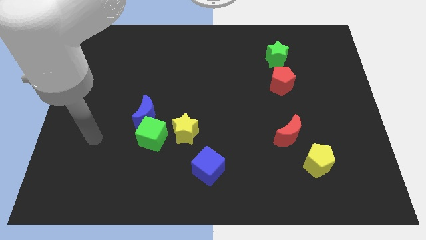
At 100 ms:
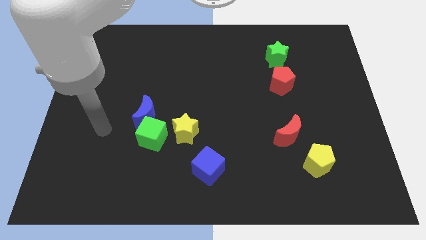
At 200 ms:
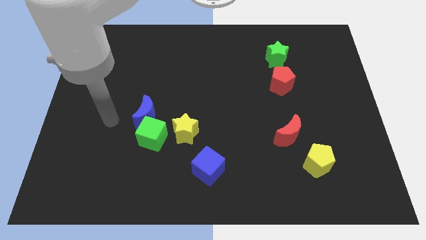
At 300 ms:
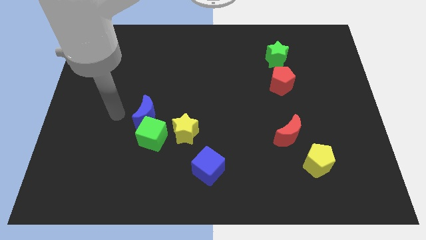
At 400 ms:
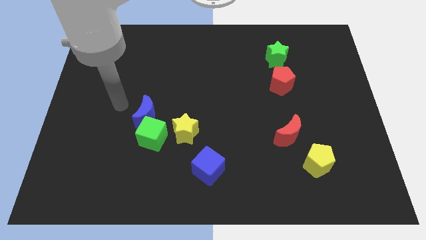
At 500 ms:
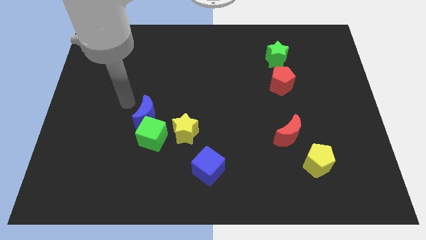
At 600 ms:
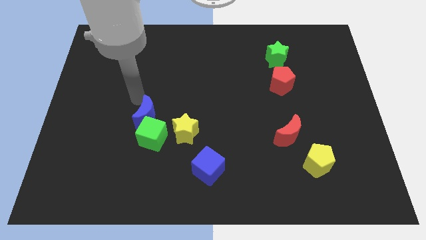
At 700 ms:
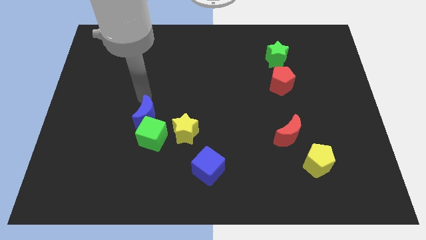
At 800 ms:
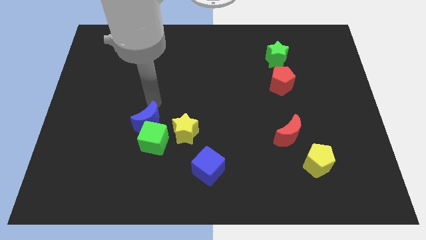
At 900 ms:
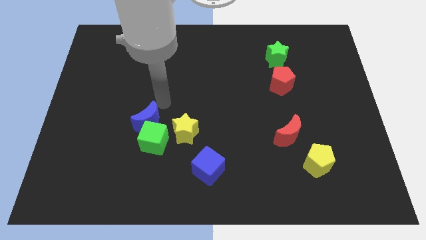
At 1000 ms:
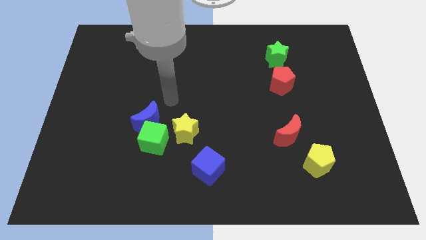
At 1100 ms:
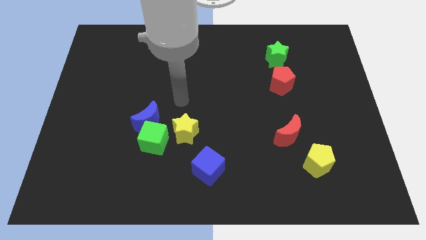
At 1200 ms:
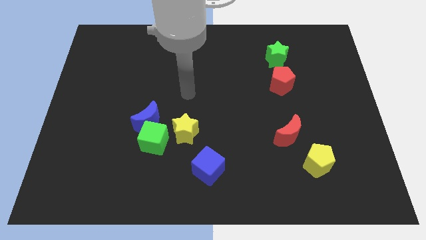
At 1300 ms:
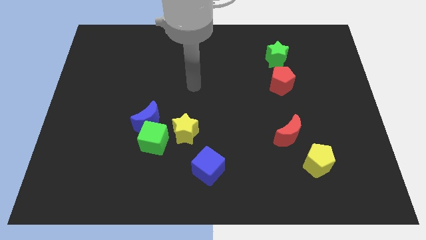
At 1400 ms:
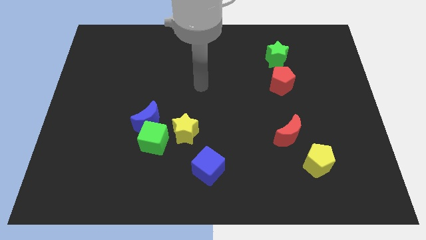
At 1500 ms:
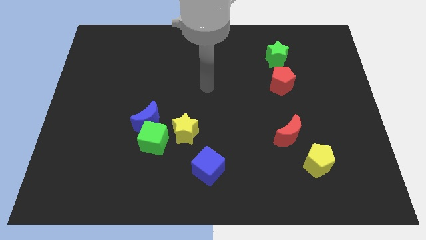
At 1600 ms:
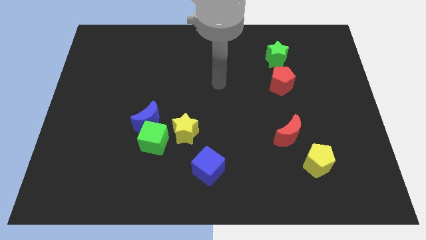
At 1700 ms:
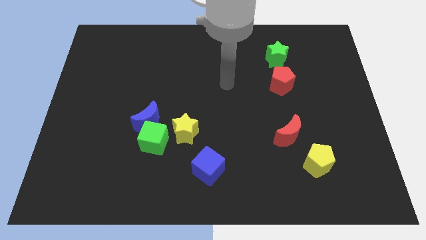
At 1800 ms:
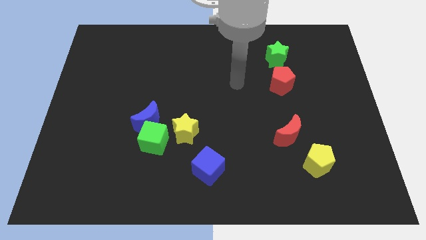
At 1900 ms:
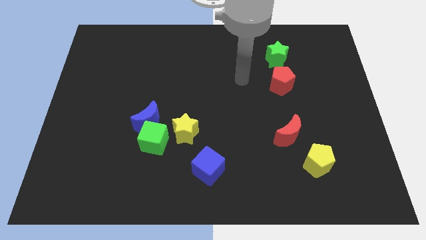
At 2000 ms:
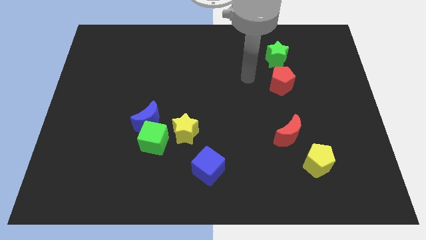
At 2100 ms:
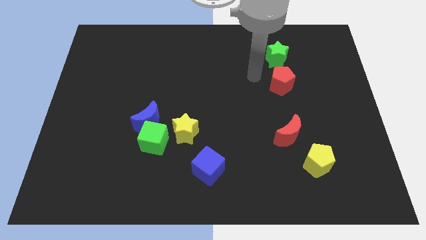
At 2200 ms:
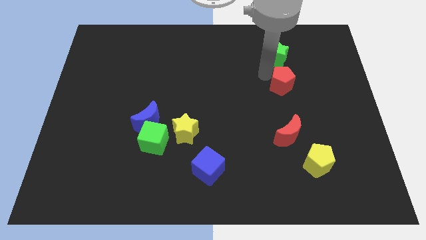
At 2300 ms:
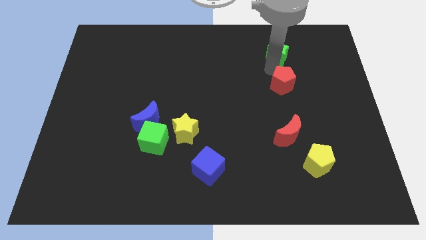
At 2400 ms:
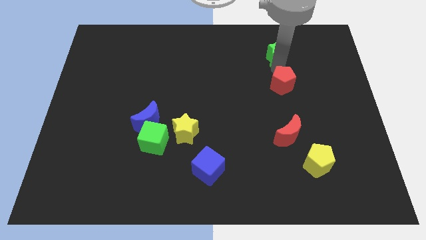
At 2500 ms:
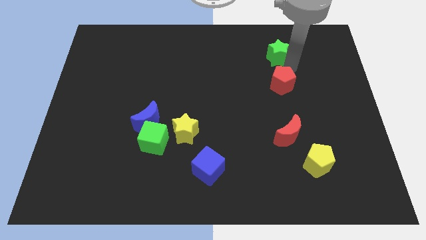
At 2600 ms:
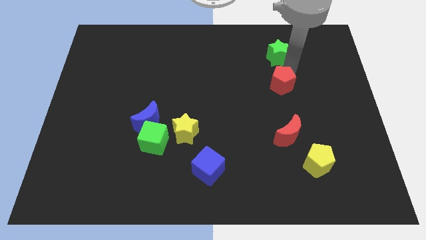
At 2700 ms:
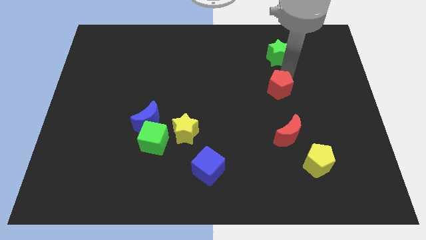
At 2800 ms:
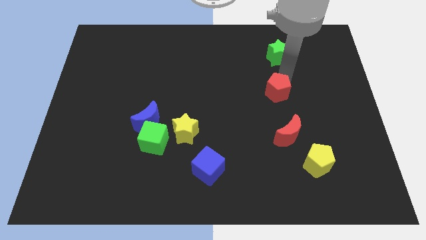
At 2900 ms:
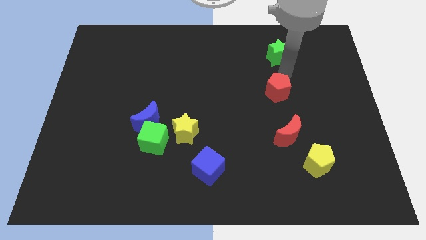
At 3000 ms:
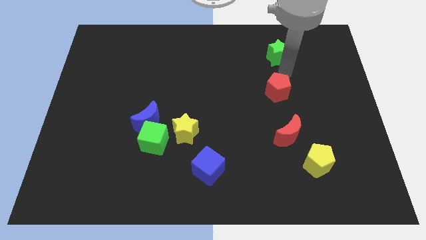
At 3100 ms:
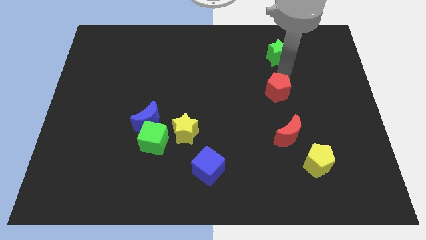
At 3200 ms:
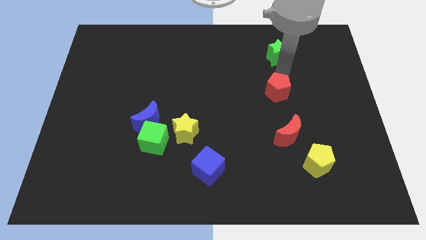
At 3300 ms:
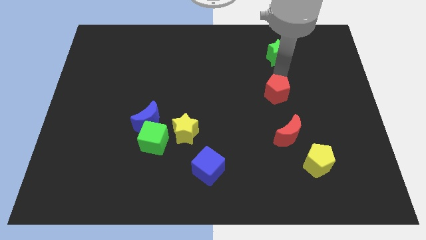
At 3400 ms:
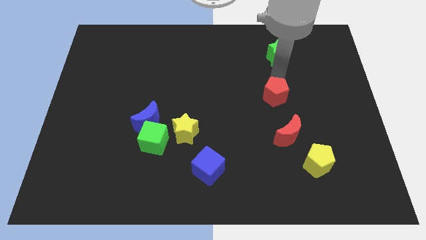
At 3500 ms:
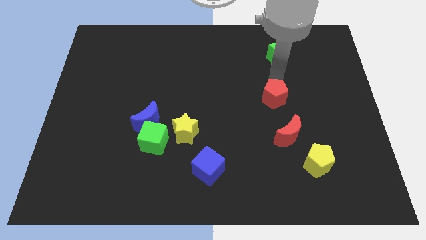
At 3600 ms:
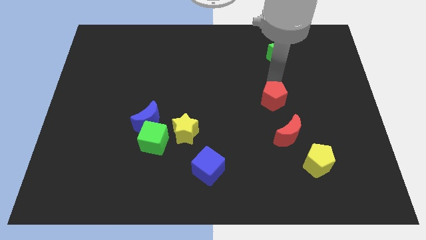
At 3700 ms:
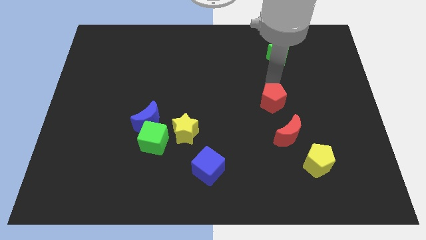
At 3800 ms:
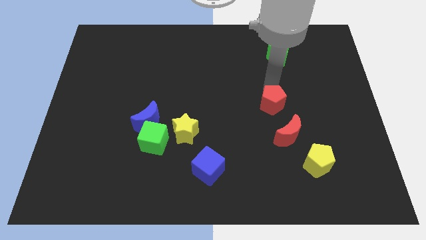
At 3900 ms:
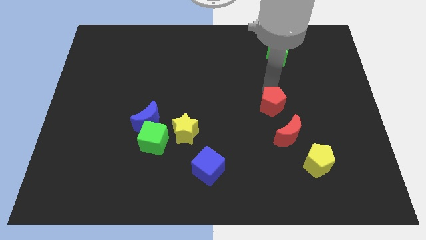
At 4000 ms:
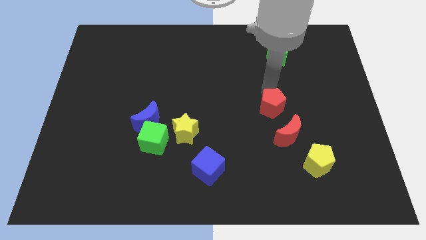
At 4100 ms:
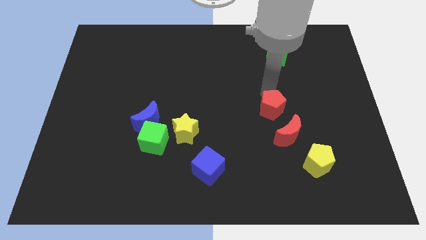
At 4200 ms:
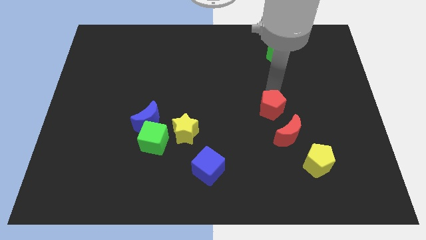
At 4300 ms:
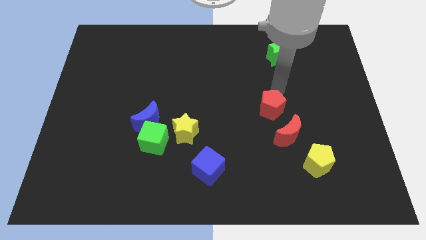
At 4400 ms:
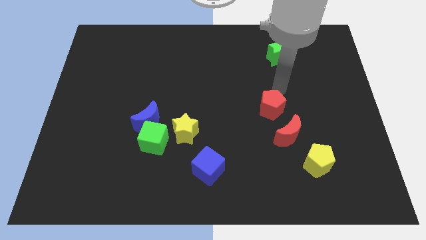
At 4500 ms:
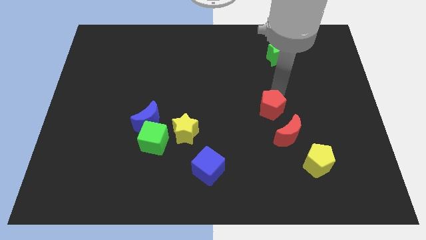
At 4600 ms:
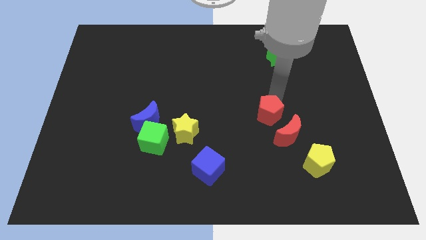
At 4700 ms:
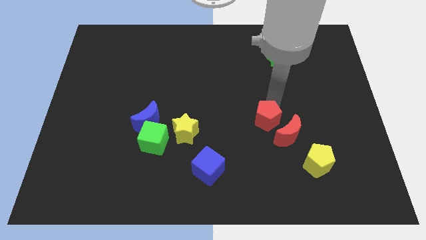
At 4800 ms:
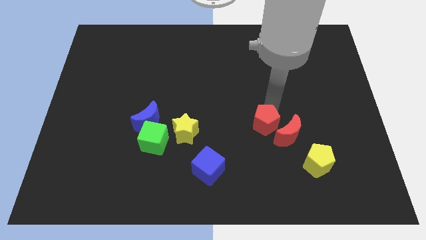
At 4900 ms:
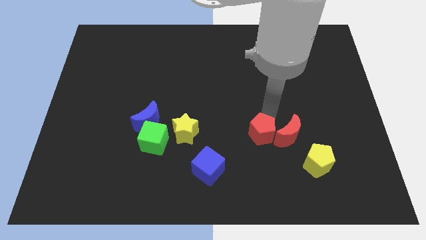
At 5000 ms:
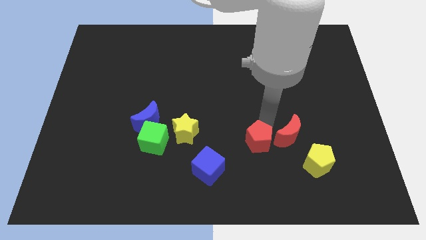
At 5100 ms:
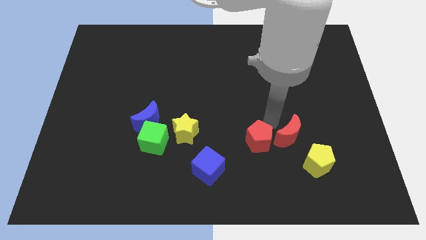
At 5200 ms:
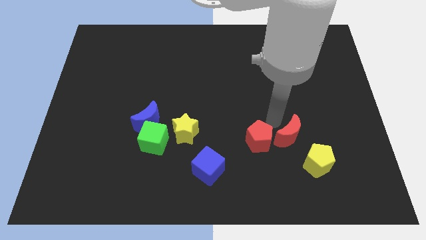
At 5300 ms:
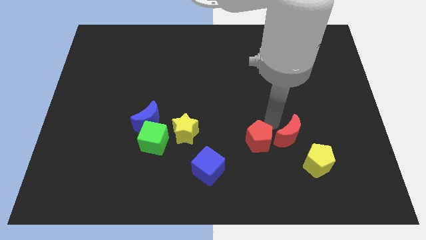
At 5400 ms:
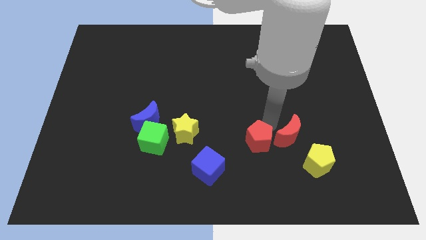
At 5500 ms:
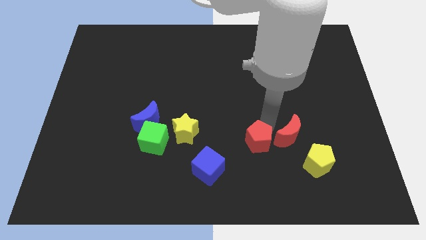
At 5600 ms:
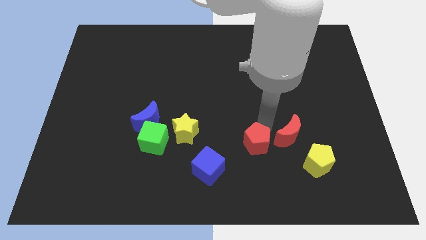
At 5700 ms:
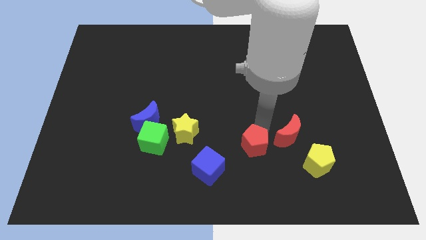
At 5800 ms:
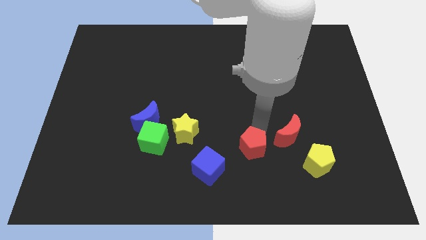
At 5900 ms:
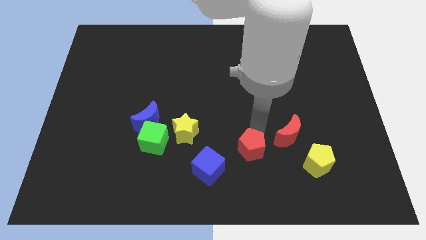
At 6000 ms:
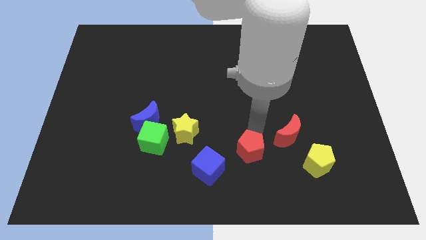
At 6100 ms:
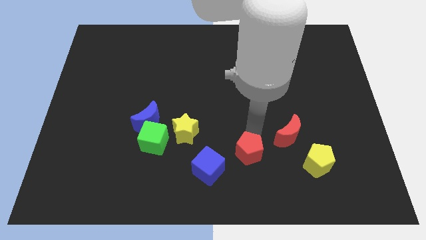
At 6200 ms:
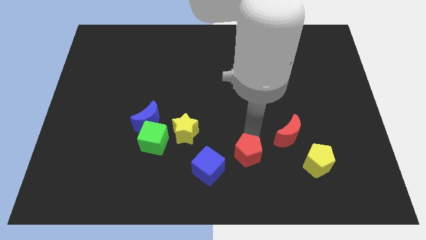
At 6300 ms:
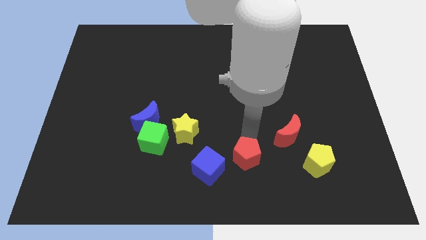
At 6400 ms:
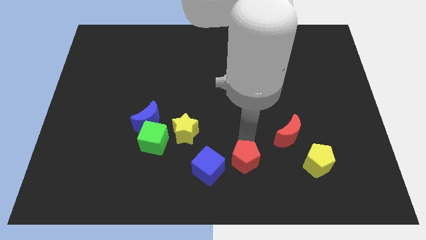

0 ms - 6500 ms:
slide the red pentagon to the bottom
